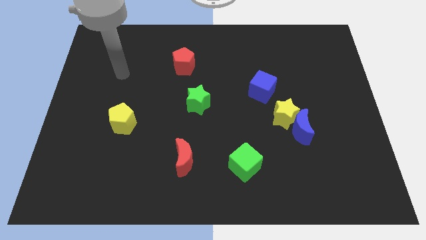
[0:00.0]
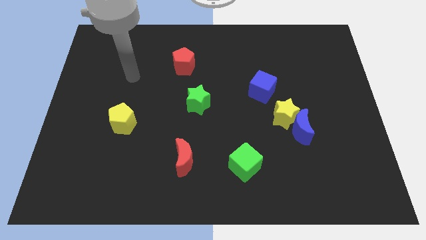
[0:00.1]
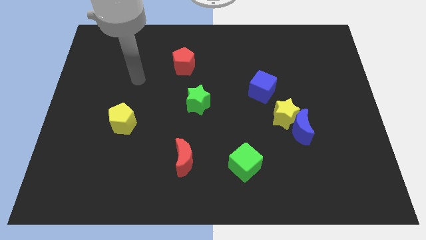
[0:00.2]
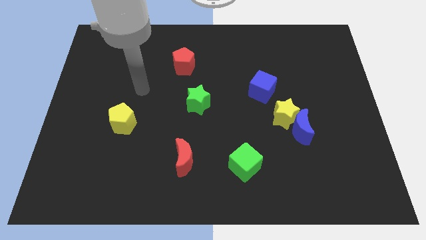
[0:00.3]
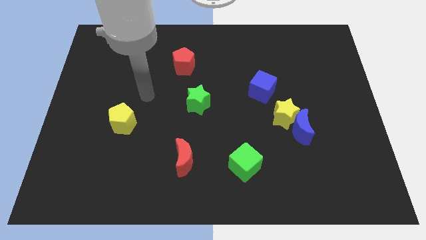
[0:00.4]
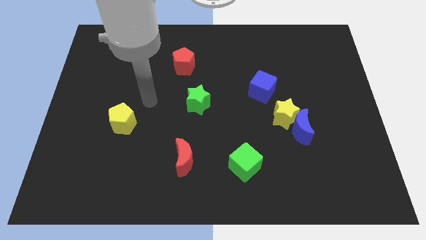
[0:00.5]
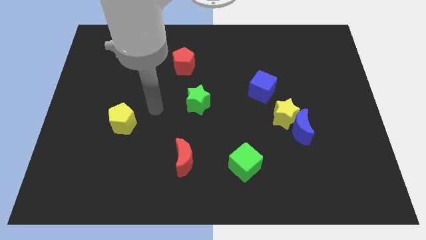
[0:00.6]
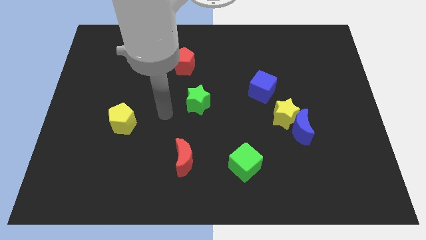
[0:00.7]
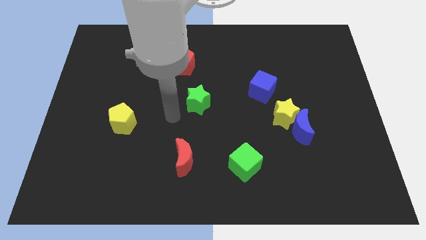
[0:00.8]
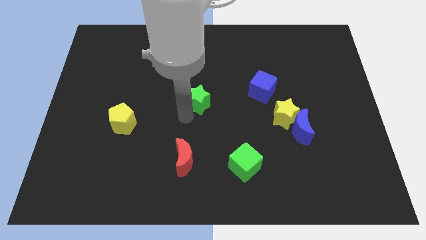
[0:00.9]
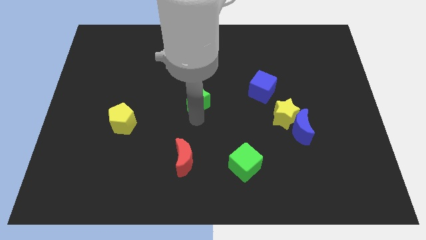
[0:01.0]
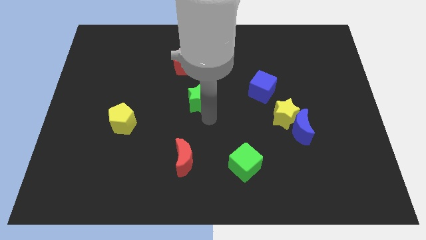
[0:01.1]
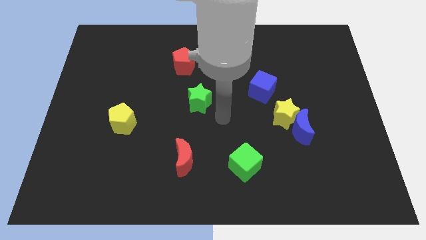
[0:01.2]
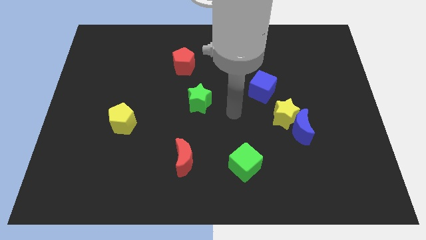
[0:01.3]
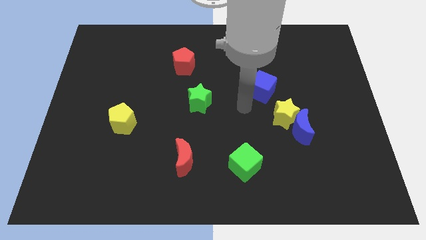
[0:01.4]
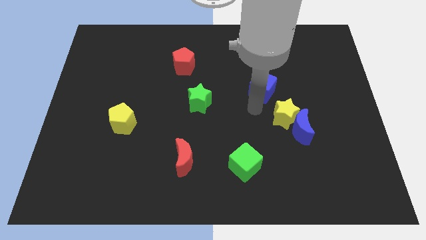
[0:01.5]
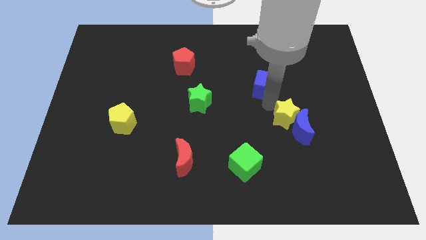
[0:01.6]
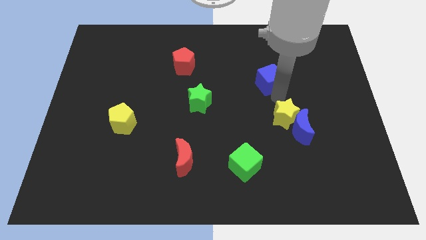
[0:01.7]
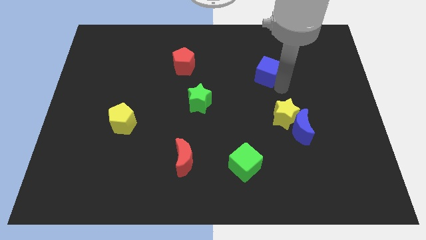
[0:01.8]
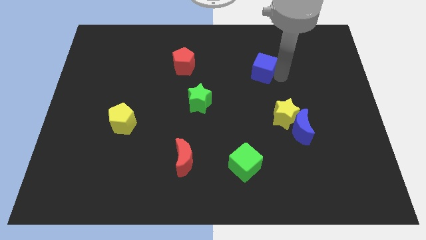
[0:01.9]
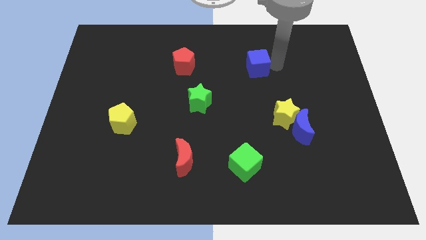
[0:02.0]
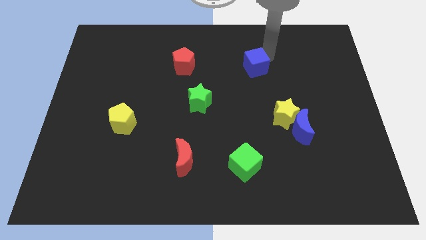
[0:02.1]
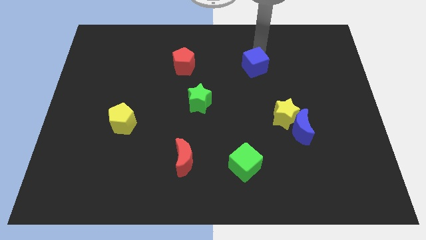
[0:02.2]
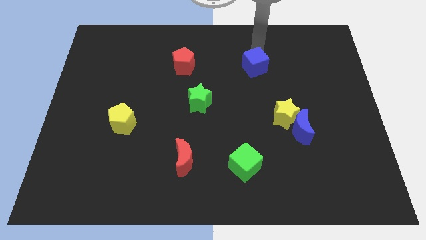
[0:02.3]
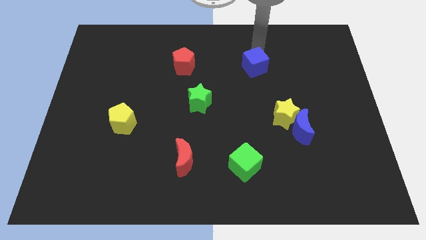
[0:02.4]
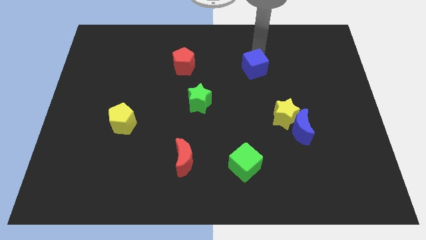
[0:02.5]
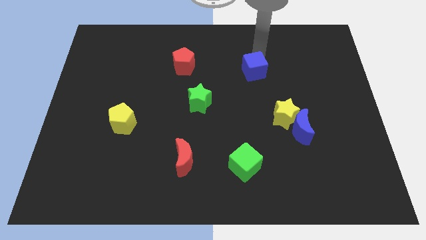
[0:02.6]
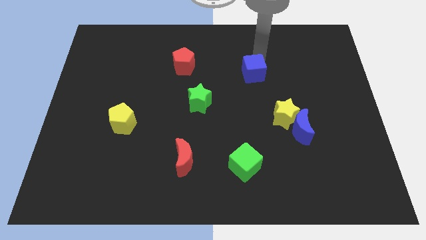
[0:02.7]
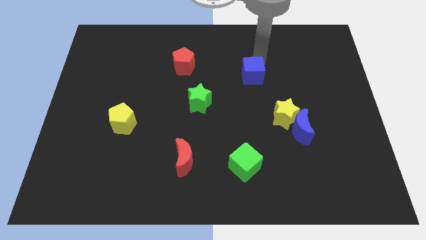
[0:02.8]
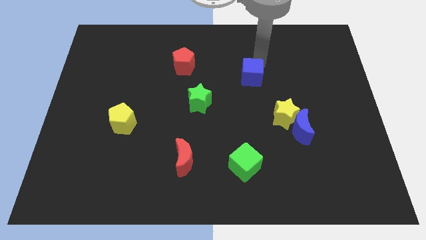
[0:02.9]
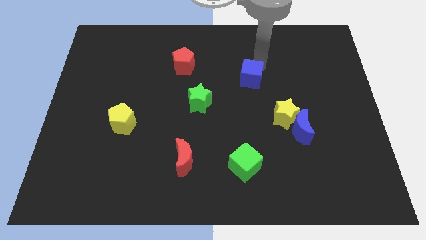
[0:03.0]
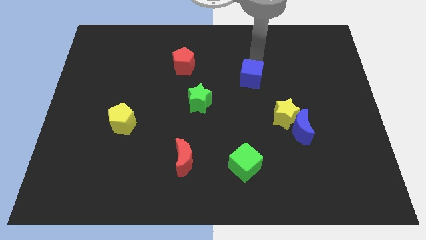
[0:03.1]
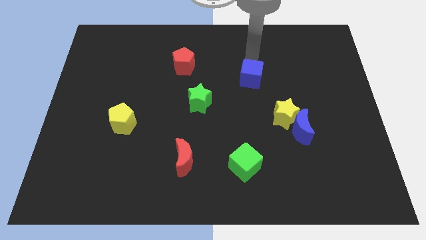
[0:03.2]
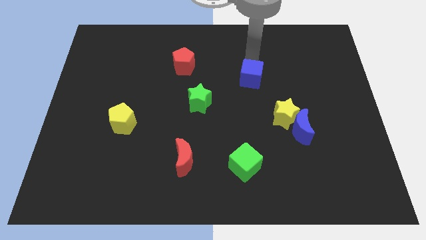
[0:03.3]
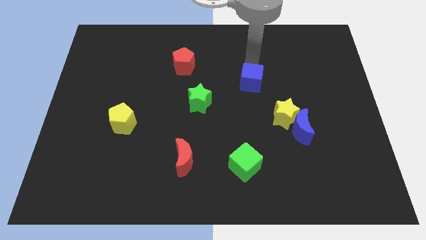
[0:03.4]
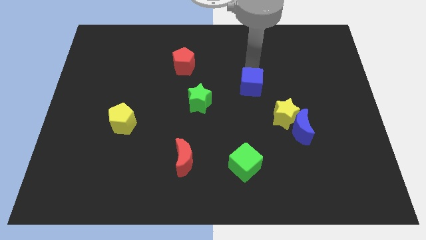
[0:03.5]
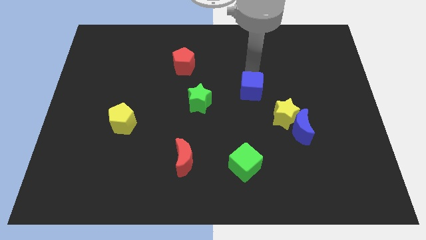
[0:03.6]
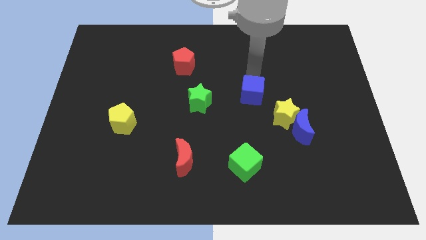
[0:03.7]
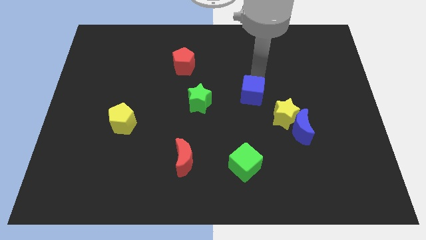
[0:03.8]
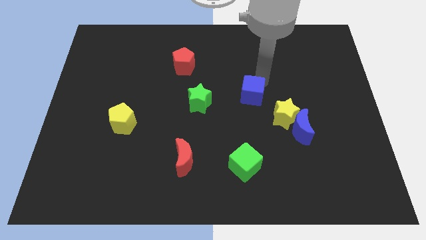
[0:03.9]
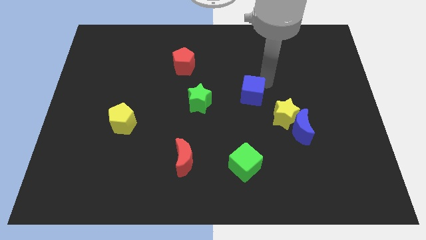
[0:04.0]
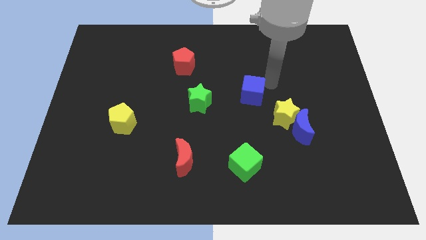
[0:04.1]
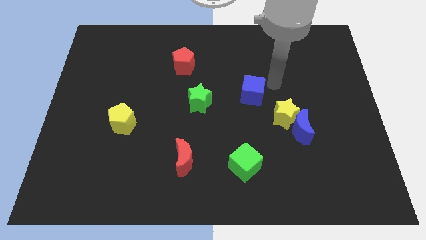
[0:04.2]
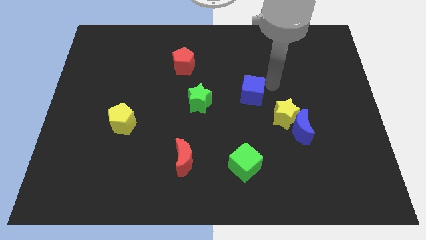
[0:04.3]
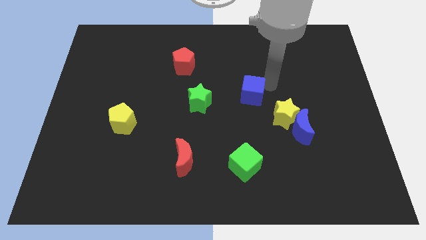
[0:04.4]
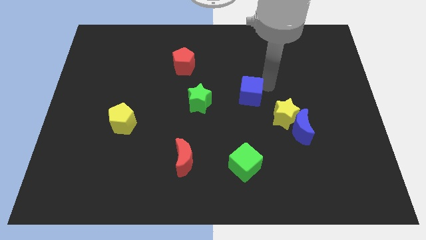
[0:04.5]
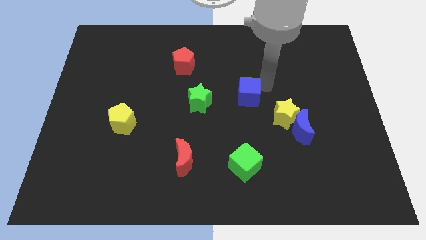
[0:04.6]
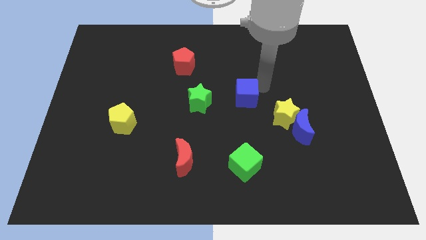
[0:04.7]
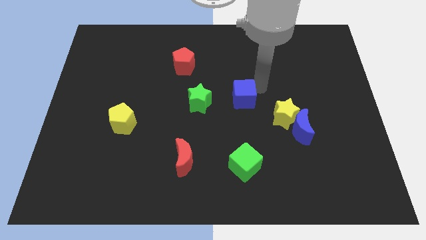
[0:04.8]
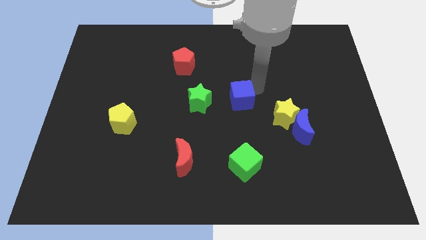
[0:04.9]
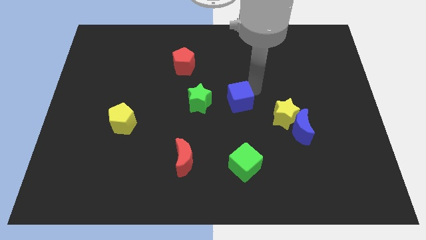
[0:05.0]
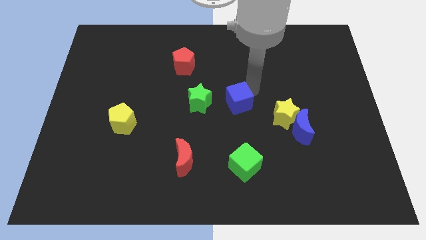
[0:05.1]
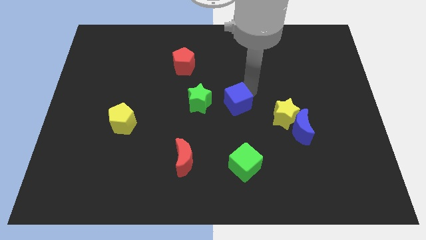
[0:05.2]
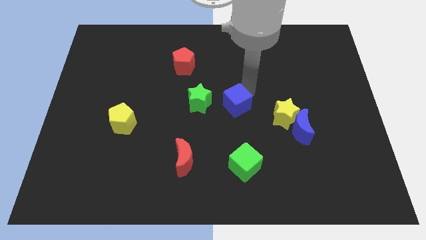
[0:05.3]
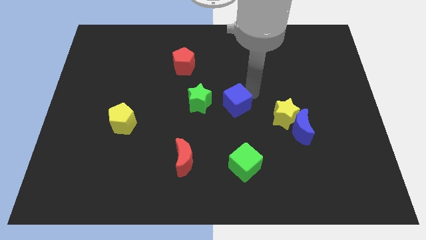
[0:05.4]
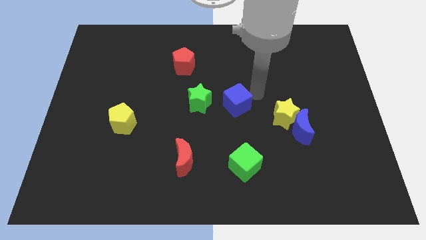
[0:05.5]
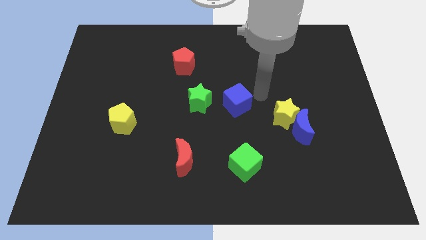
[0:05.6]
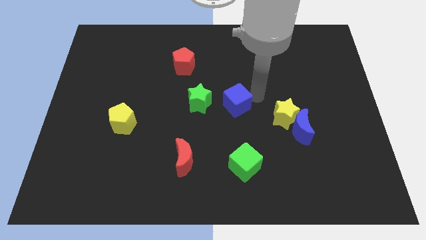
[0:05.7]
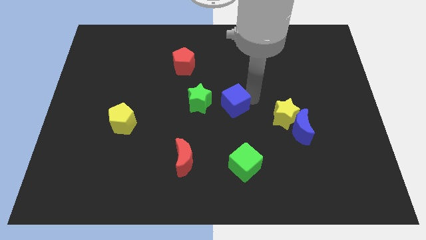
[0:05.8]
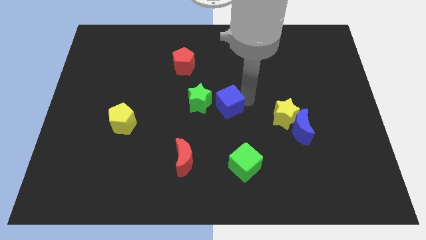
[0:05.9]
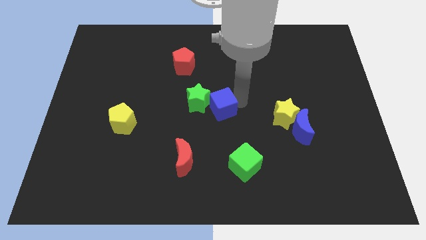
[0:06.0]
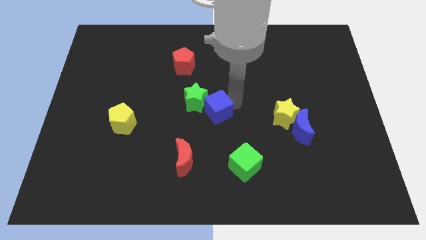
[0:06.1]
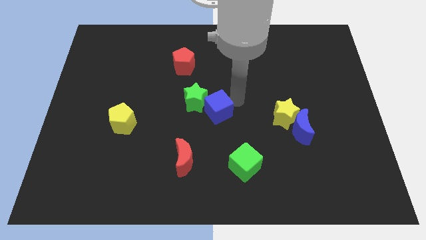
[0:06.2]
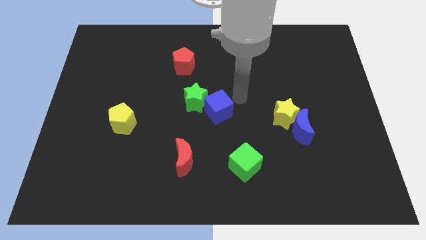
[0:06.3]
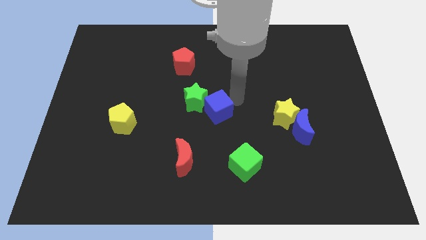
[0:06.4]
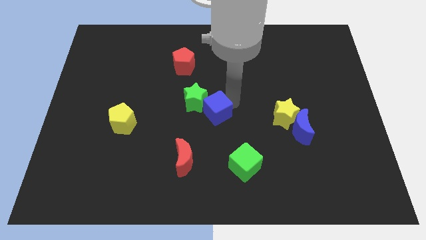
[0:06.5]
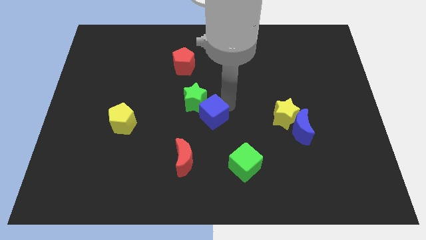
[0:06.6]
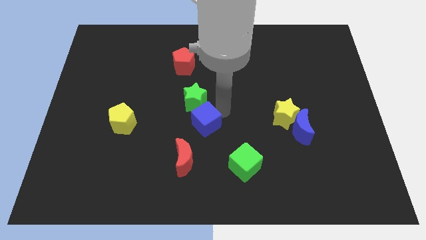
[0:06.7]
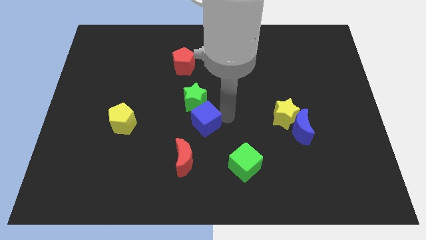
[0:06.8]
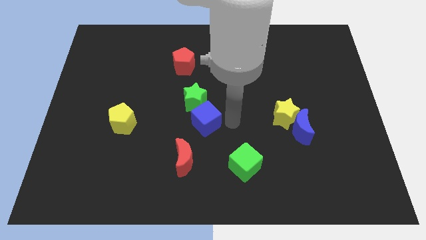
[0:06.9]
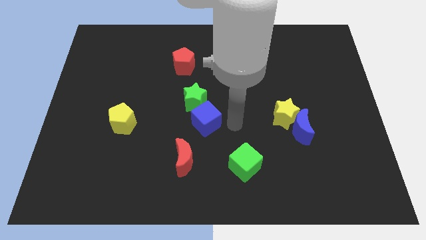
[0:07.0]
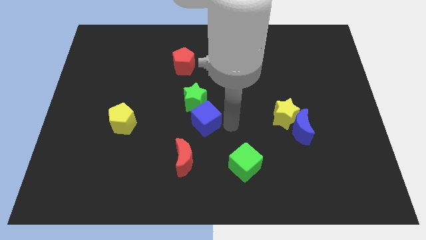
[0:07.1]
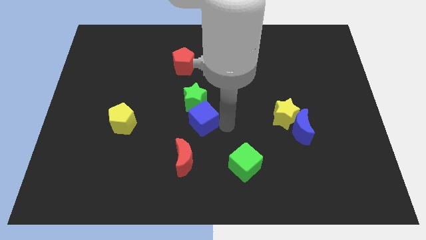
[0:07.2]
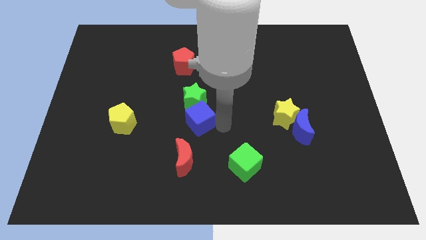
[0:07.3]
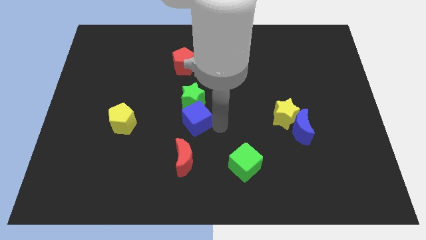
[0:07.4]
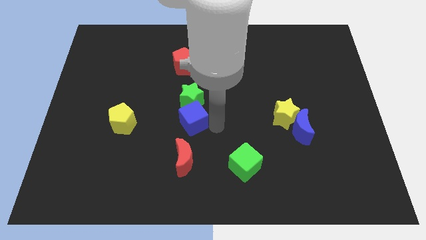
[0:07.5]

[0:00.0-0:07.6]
move the blue cube diagonally down and to the left of the green star
